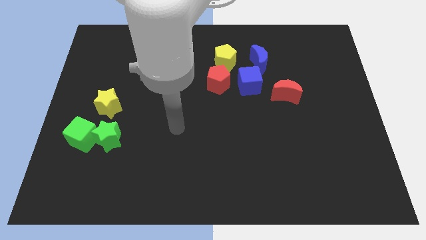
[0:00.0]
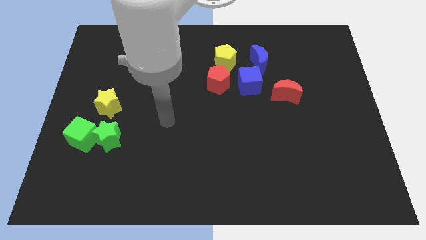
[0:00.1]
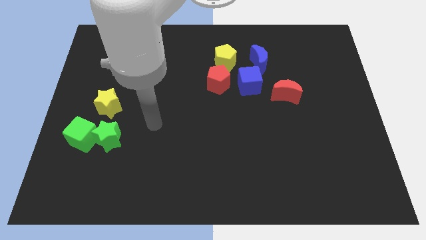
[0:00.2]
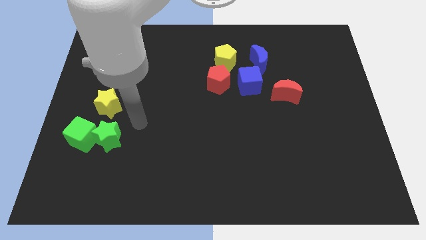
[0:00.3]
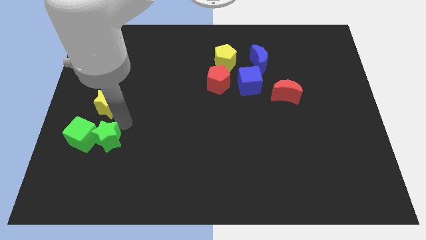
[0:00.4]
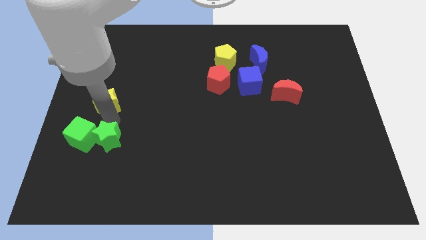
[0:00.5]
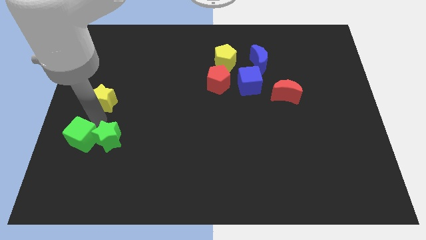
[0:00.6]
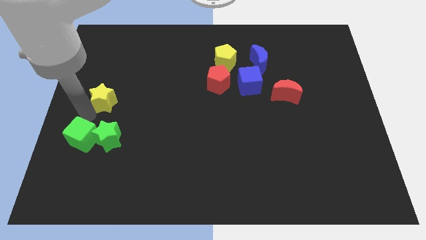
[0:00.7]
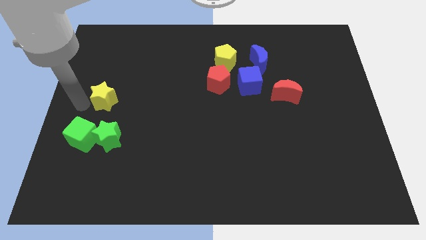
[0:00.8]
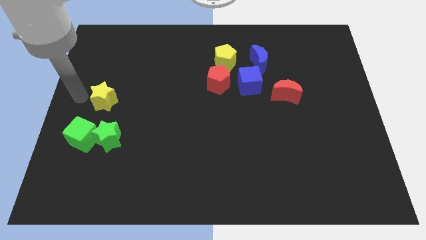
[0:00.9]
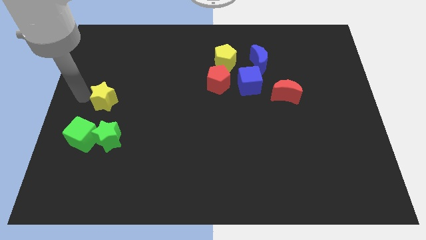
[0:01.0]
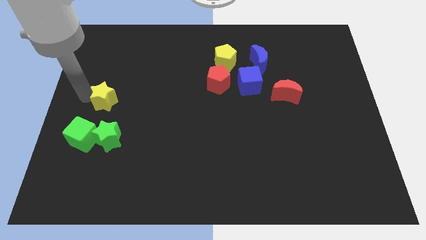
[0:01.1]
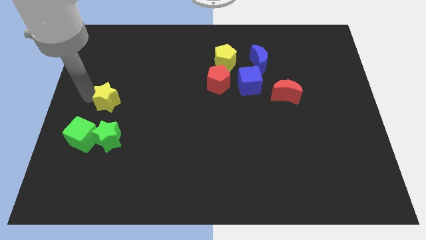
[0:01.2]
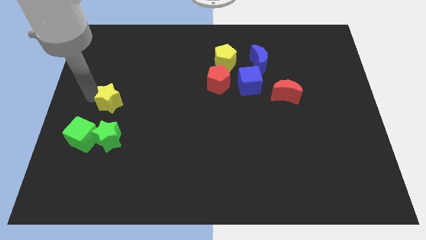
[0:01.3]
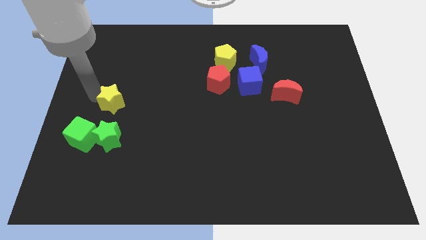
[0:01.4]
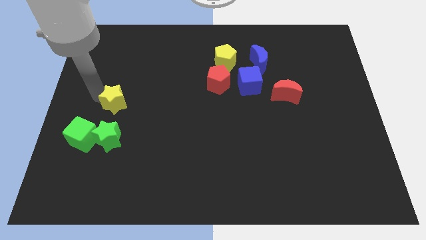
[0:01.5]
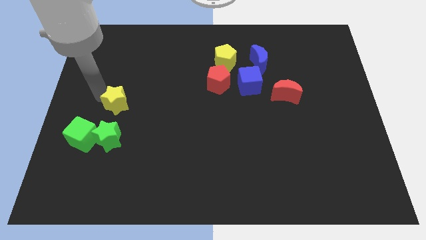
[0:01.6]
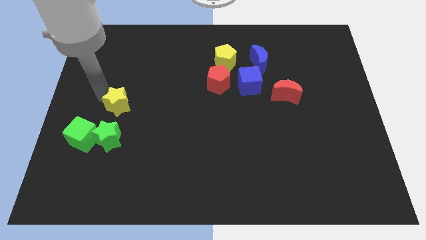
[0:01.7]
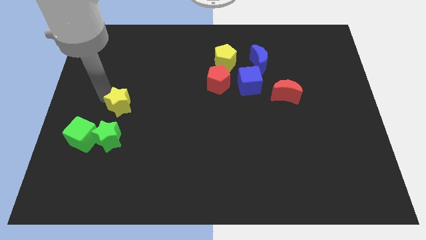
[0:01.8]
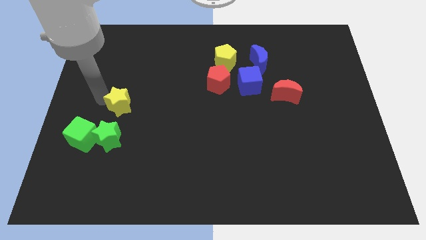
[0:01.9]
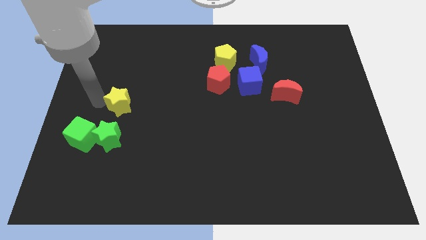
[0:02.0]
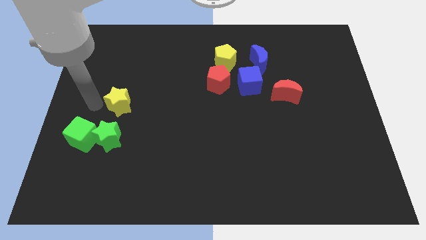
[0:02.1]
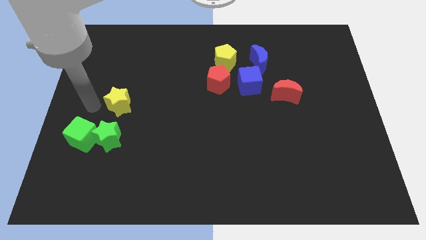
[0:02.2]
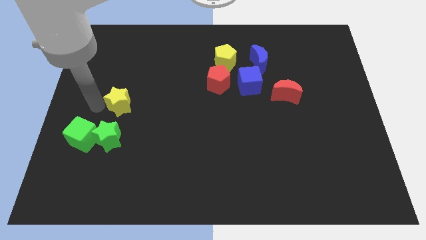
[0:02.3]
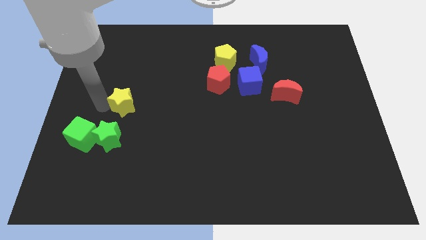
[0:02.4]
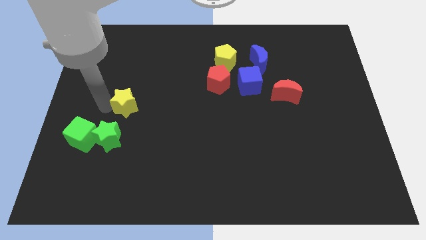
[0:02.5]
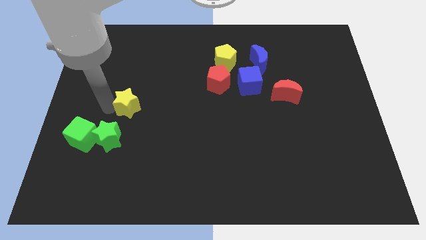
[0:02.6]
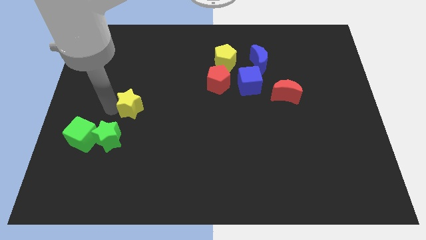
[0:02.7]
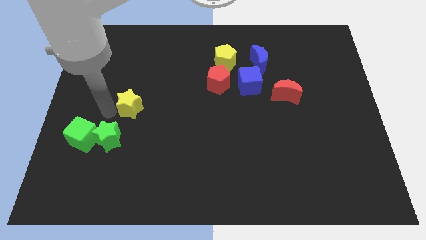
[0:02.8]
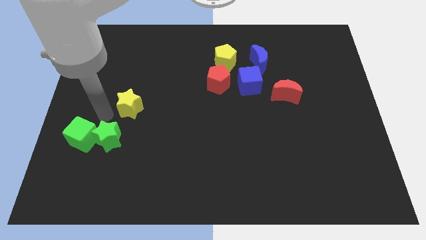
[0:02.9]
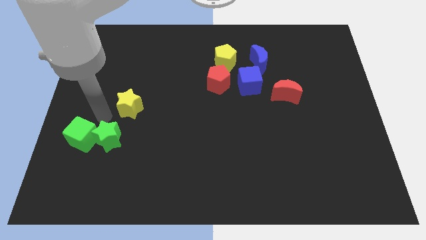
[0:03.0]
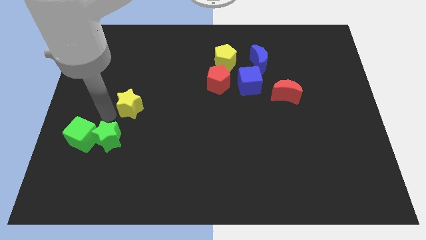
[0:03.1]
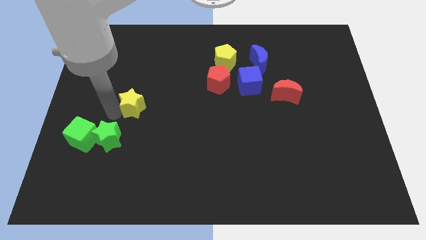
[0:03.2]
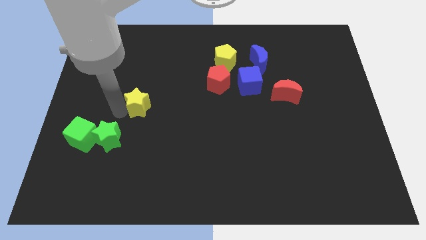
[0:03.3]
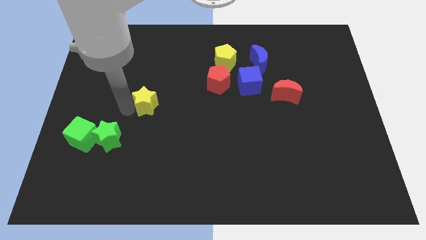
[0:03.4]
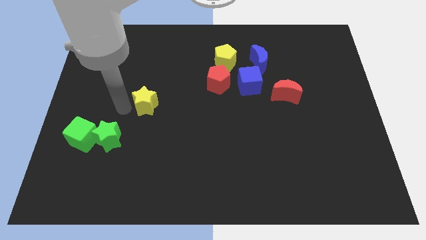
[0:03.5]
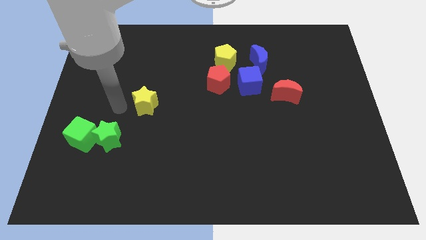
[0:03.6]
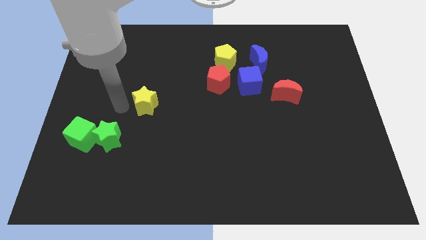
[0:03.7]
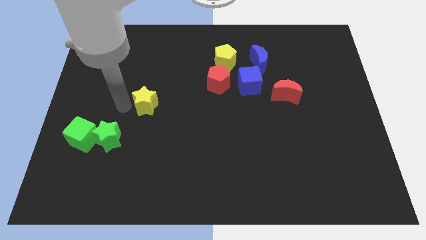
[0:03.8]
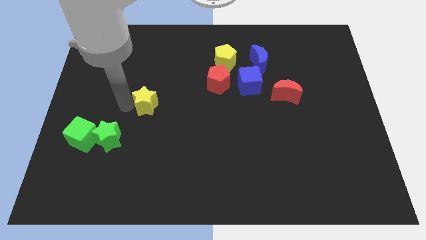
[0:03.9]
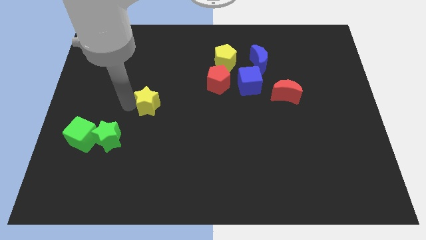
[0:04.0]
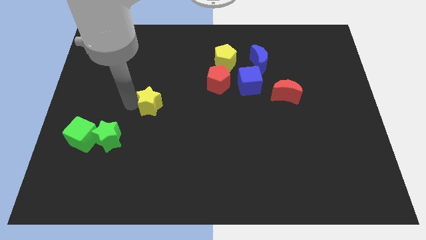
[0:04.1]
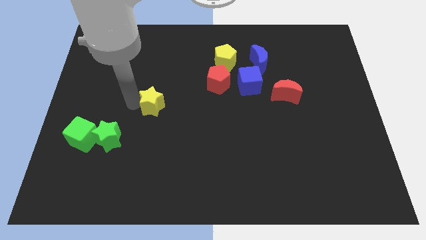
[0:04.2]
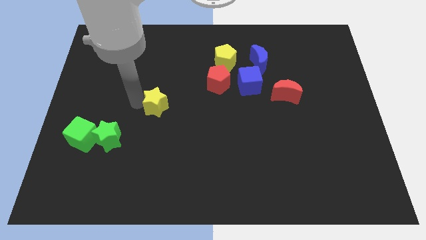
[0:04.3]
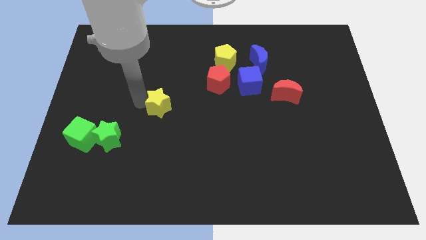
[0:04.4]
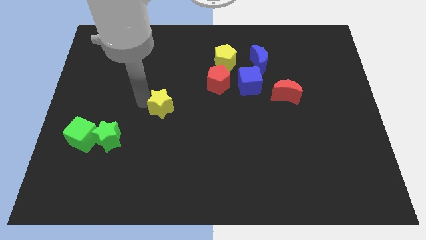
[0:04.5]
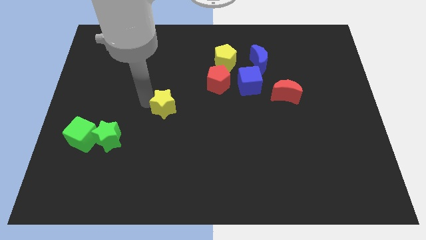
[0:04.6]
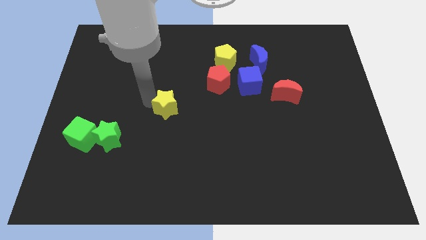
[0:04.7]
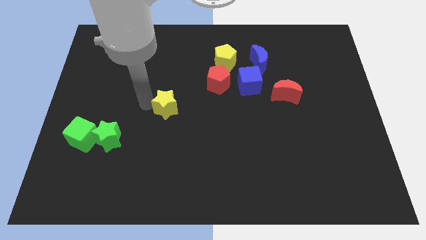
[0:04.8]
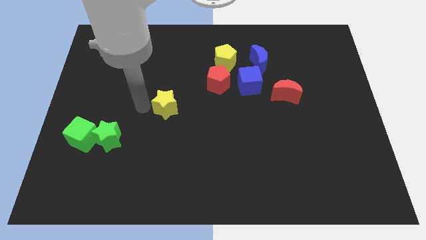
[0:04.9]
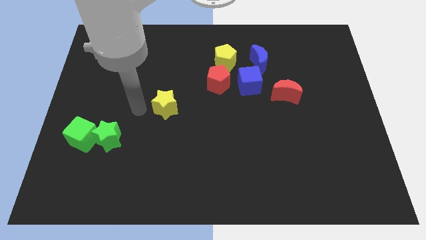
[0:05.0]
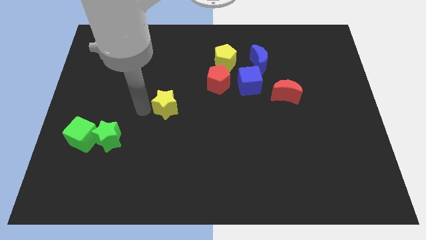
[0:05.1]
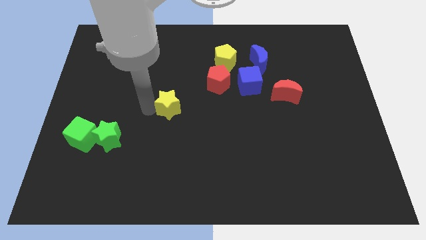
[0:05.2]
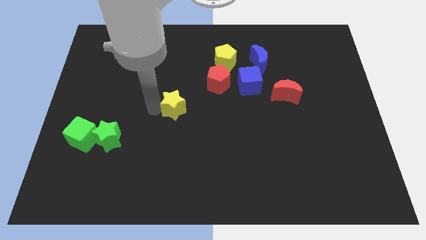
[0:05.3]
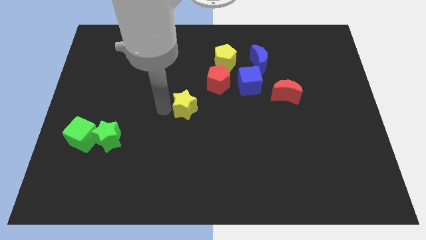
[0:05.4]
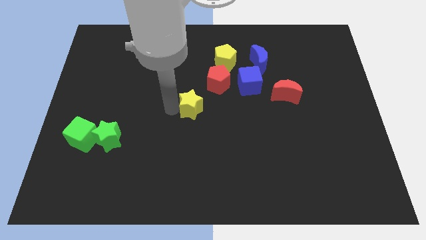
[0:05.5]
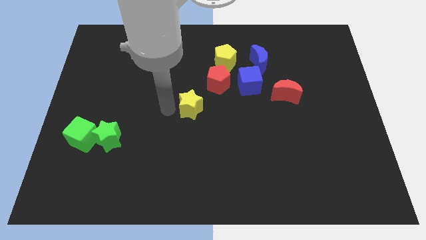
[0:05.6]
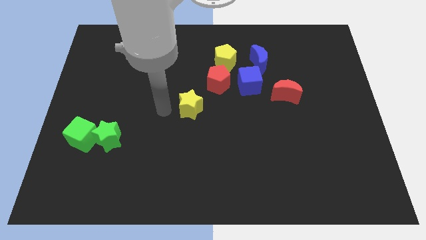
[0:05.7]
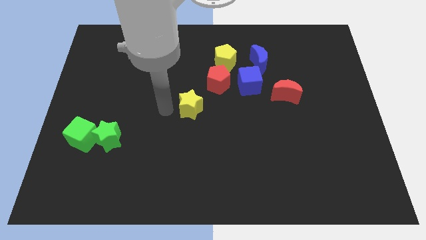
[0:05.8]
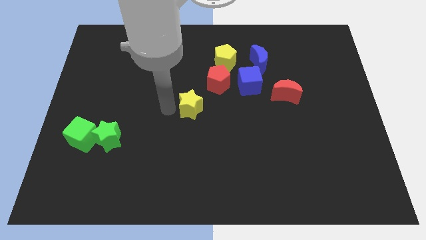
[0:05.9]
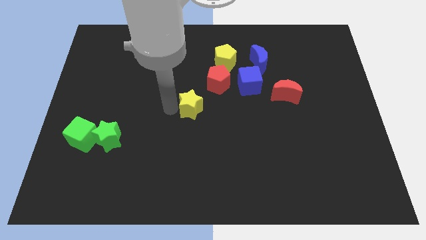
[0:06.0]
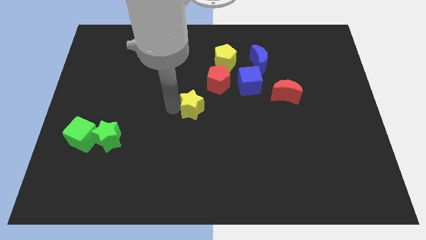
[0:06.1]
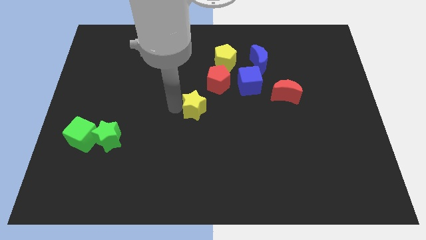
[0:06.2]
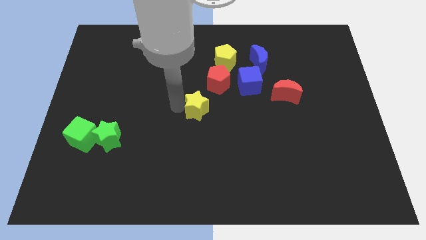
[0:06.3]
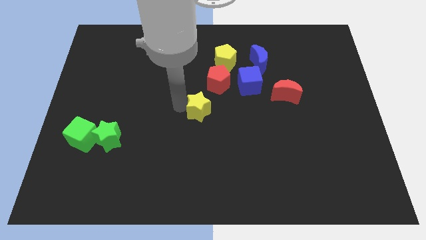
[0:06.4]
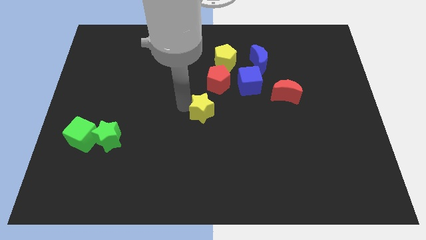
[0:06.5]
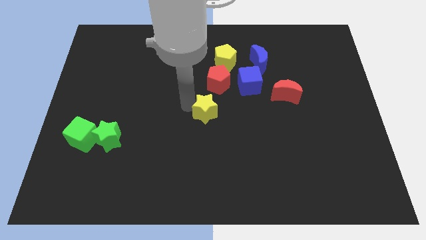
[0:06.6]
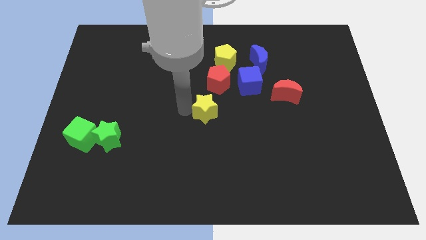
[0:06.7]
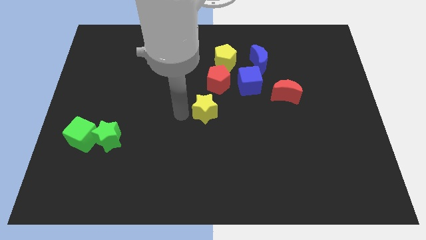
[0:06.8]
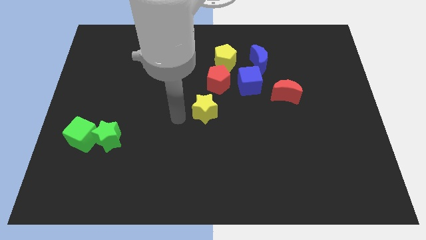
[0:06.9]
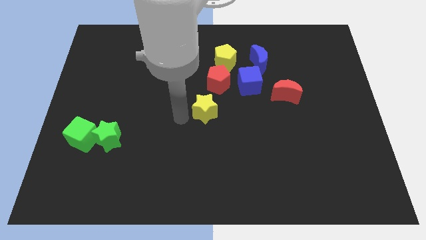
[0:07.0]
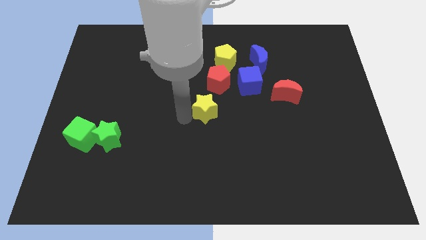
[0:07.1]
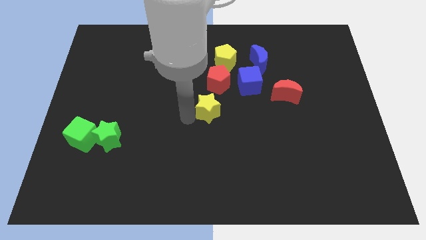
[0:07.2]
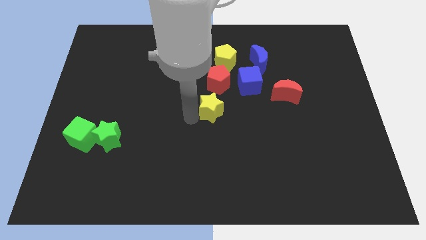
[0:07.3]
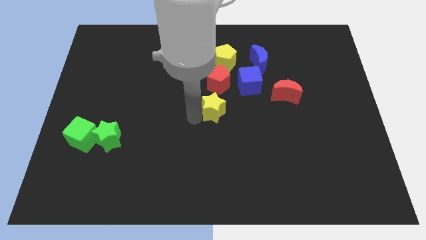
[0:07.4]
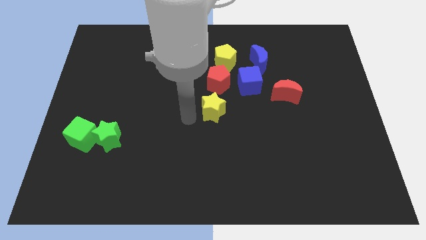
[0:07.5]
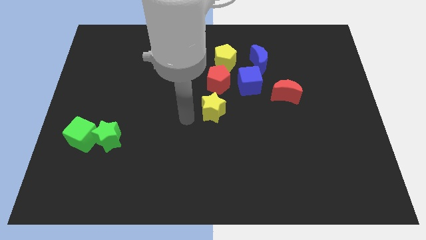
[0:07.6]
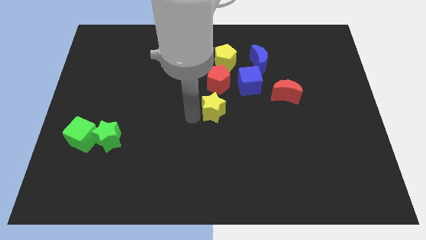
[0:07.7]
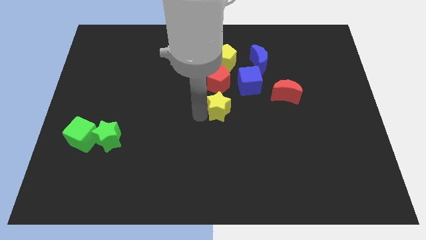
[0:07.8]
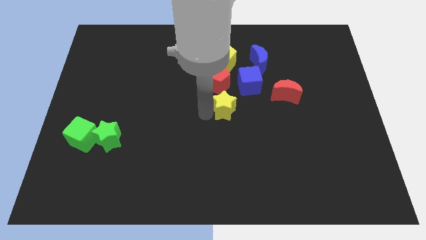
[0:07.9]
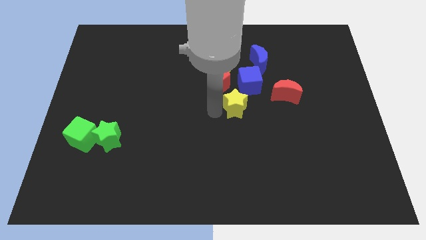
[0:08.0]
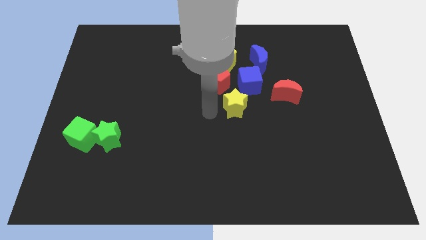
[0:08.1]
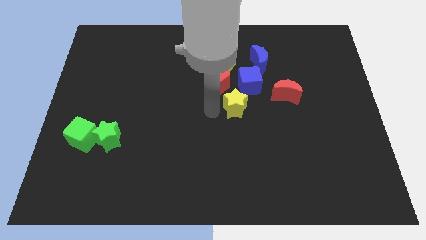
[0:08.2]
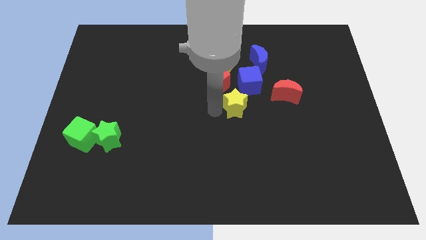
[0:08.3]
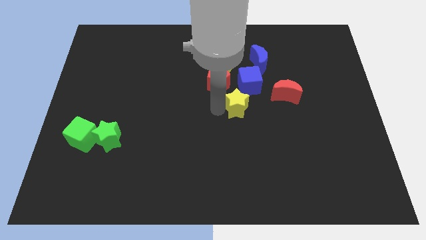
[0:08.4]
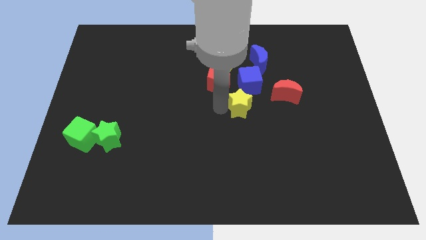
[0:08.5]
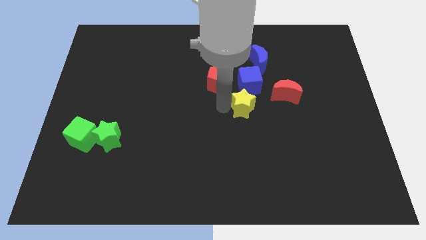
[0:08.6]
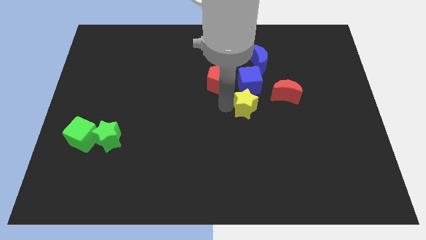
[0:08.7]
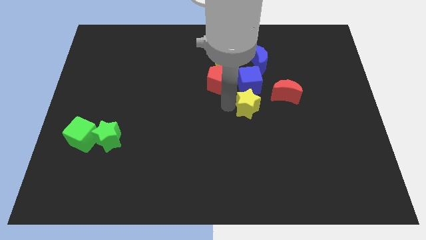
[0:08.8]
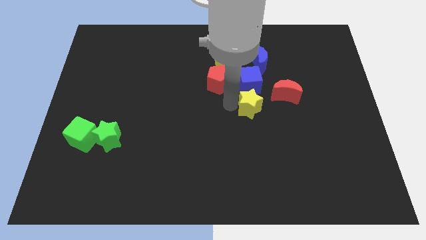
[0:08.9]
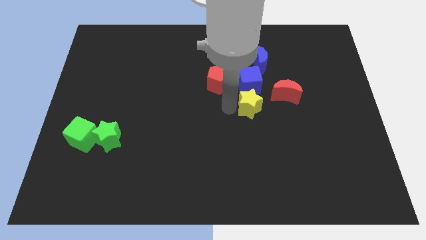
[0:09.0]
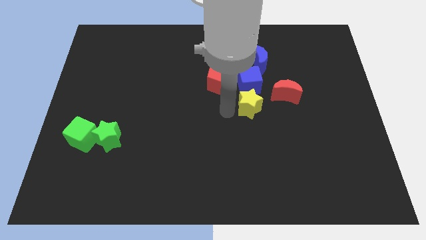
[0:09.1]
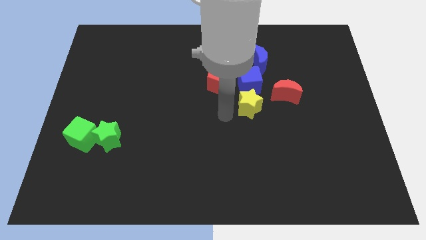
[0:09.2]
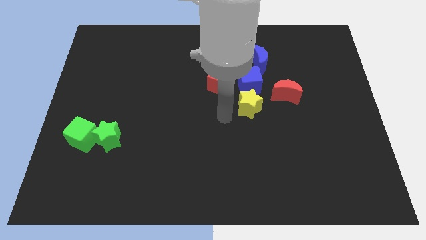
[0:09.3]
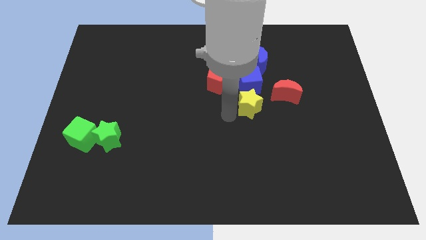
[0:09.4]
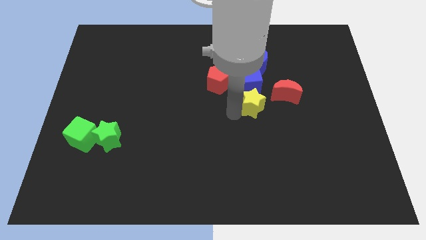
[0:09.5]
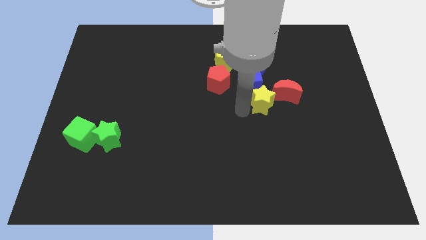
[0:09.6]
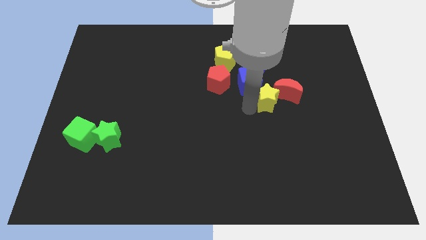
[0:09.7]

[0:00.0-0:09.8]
slide the yellow star towards the red moon
